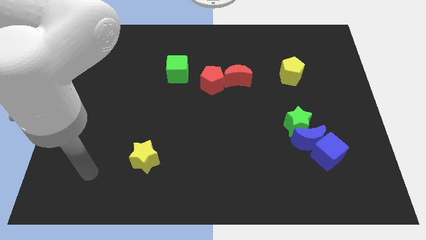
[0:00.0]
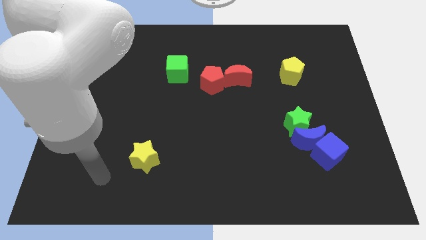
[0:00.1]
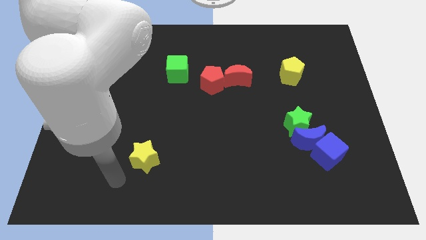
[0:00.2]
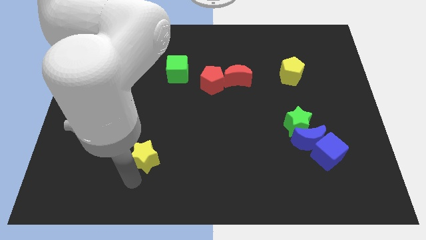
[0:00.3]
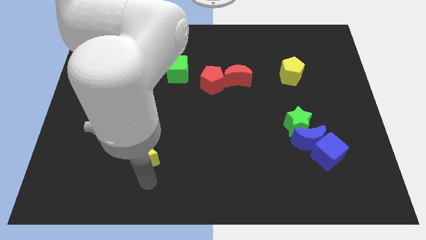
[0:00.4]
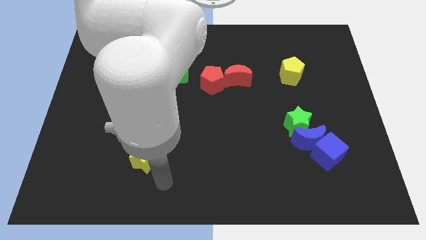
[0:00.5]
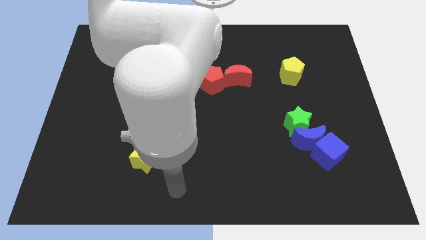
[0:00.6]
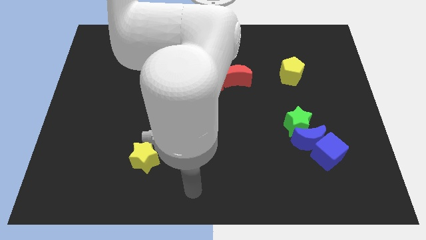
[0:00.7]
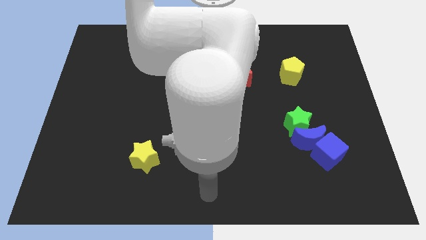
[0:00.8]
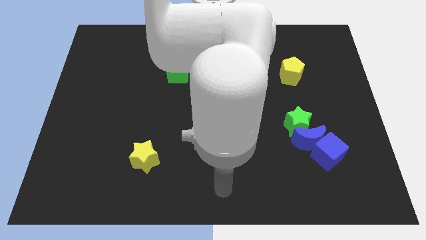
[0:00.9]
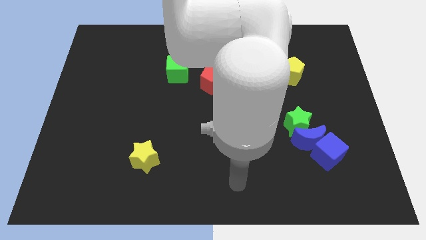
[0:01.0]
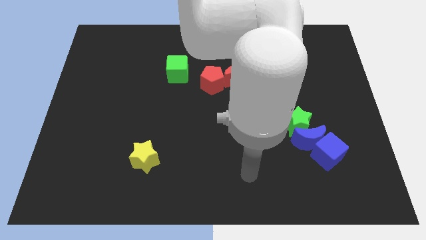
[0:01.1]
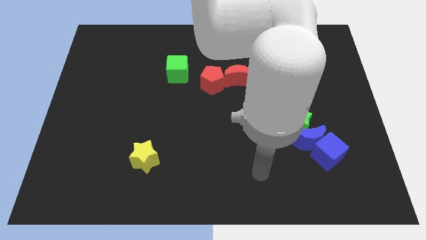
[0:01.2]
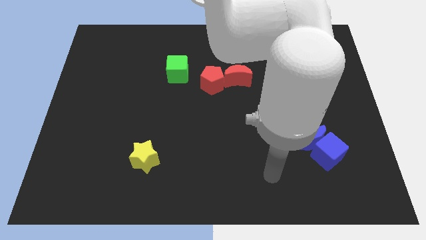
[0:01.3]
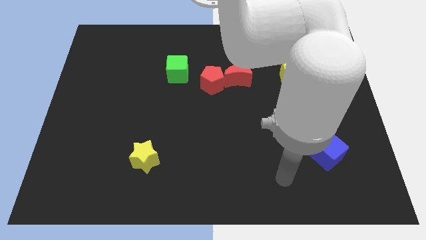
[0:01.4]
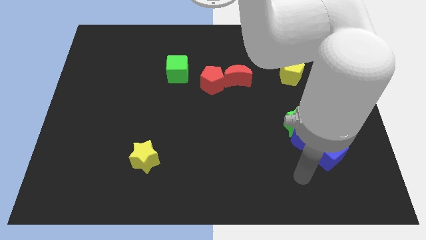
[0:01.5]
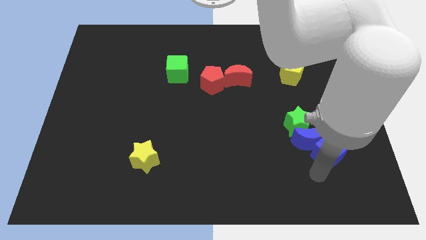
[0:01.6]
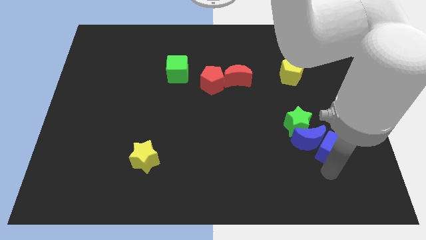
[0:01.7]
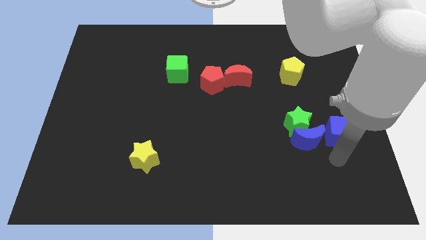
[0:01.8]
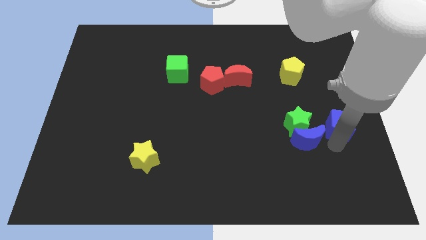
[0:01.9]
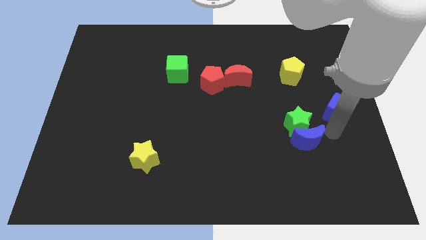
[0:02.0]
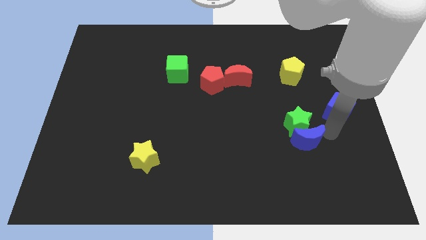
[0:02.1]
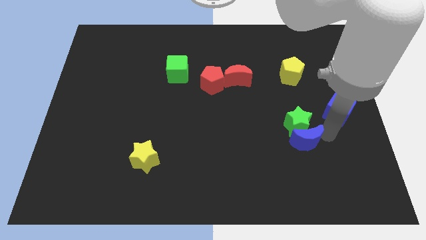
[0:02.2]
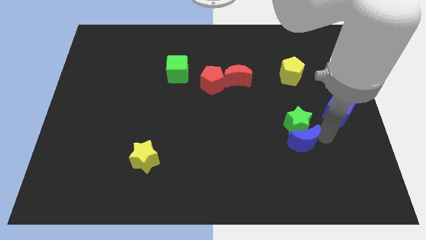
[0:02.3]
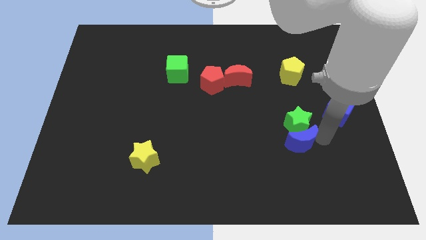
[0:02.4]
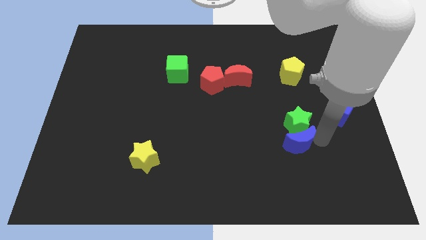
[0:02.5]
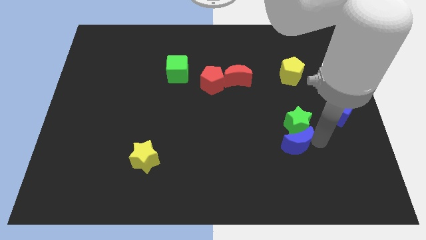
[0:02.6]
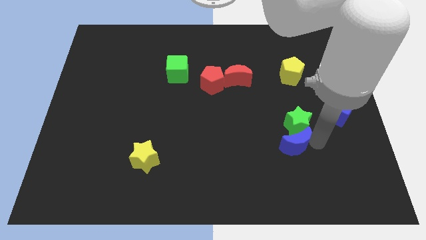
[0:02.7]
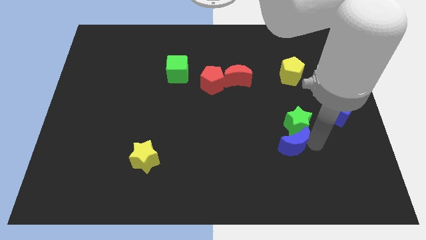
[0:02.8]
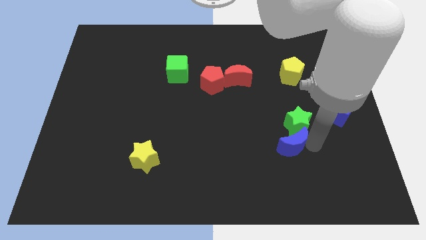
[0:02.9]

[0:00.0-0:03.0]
move the blue moon away from the green star and blue cube

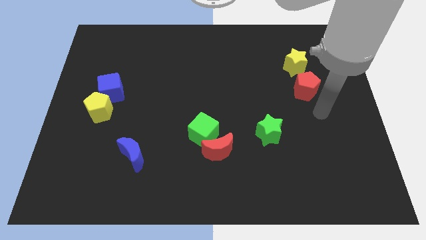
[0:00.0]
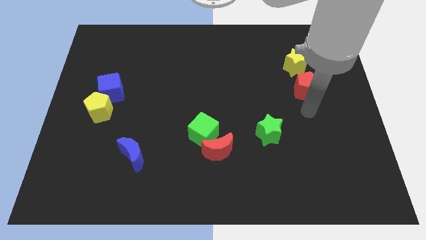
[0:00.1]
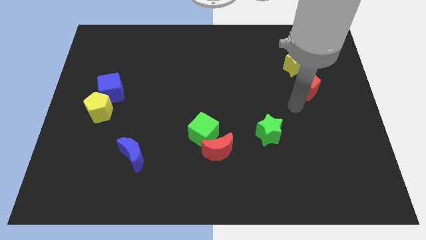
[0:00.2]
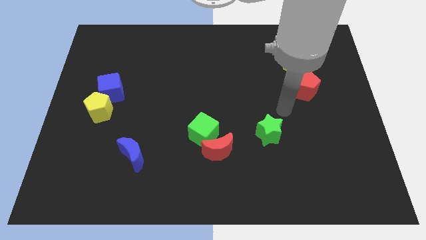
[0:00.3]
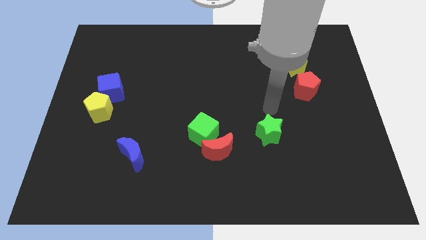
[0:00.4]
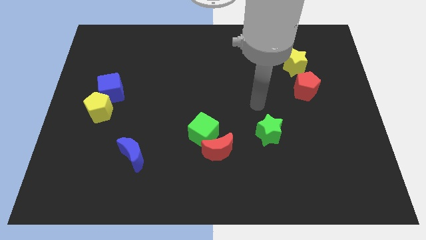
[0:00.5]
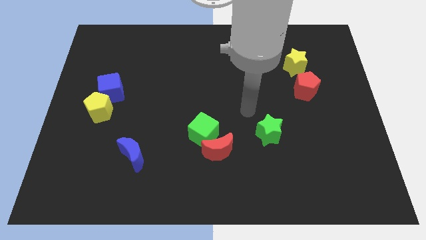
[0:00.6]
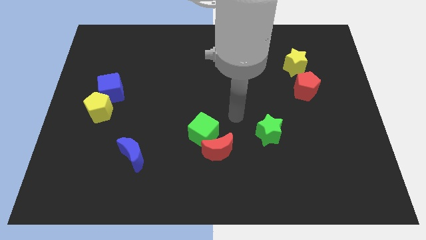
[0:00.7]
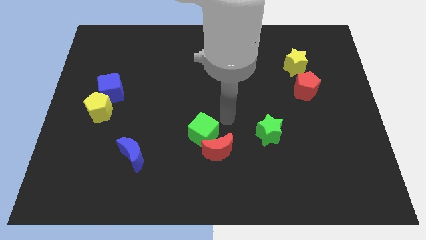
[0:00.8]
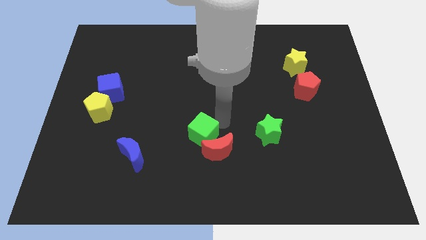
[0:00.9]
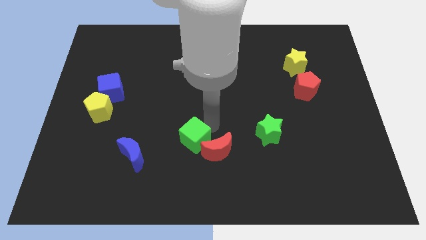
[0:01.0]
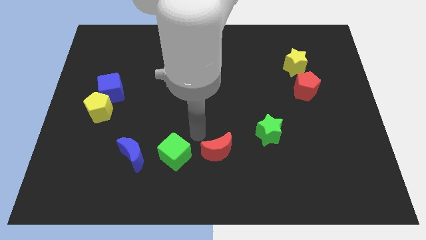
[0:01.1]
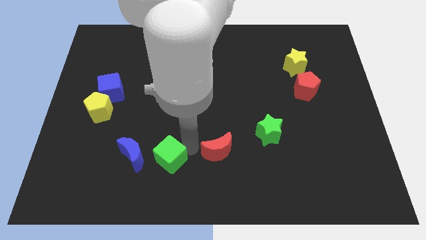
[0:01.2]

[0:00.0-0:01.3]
move the red moon away from the green cube

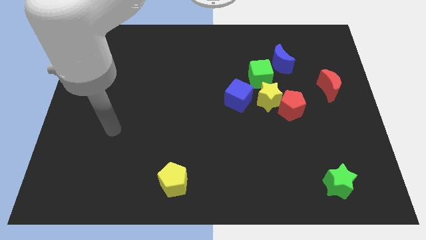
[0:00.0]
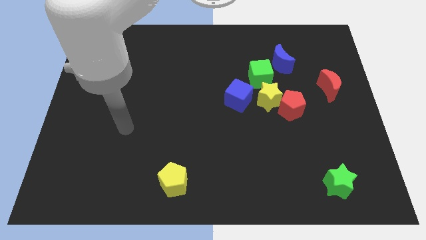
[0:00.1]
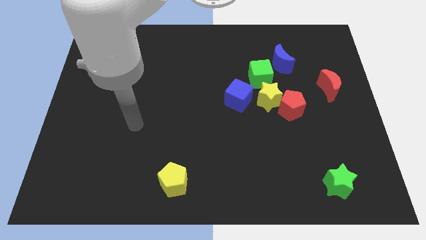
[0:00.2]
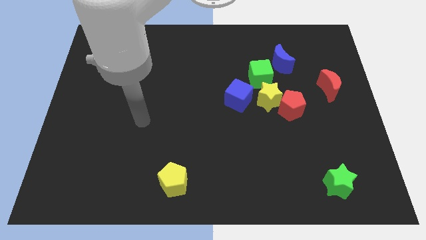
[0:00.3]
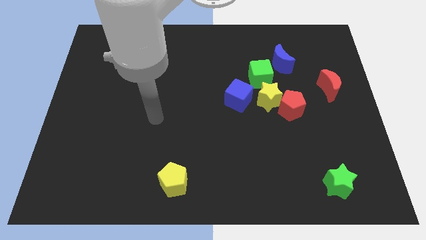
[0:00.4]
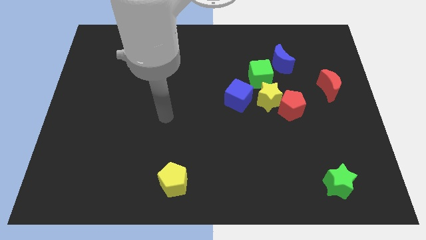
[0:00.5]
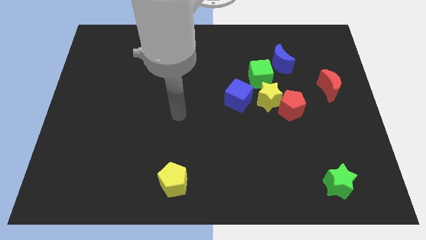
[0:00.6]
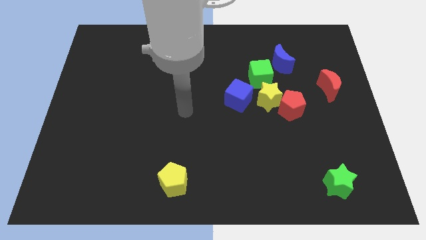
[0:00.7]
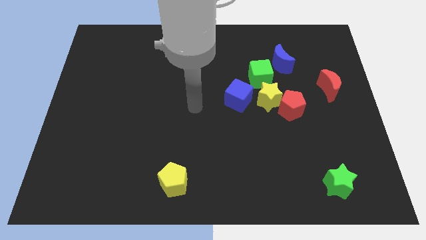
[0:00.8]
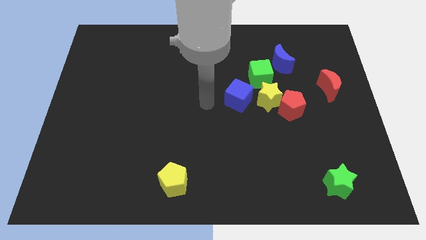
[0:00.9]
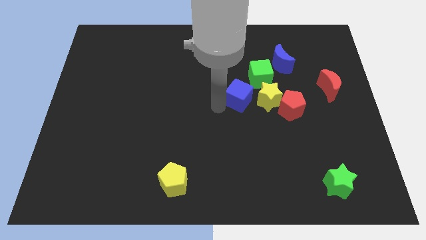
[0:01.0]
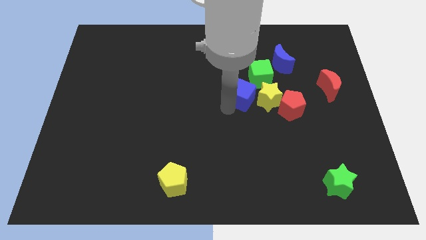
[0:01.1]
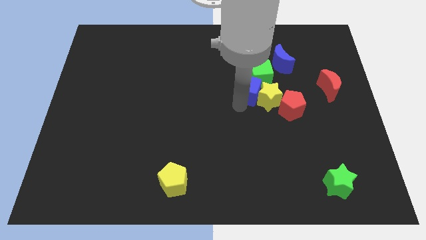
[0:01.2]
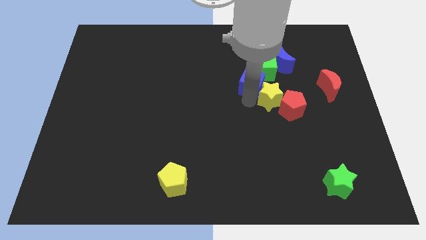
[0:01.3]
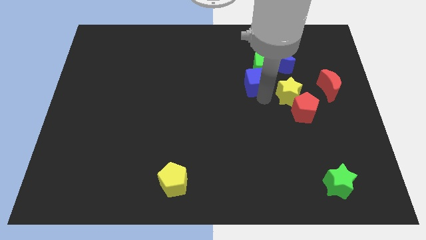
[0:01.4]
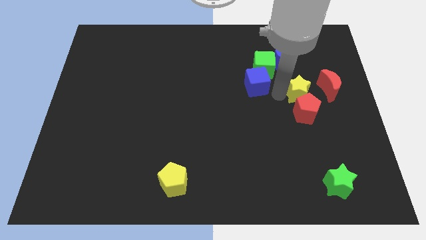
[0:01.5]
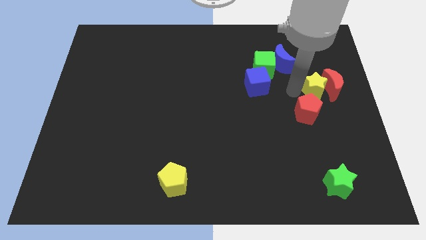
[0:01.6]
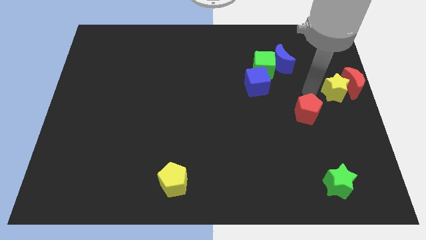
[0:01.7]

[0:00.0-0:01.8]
move the red pentagon away from the yellow star

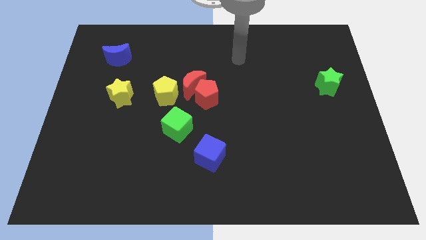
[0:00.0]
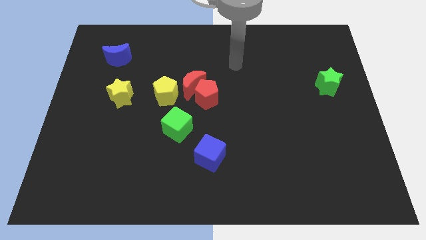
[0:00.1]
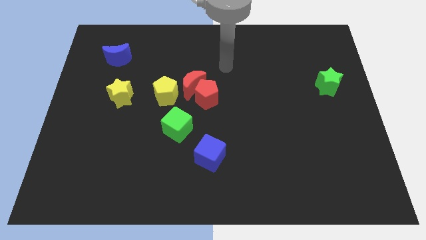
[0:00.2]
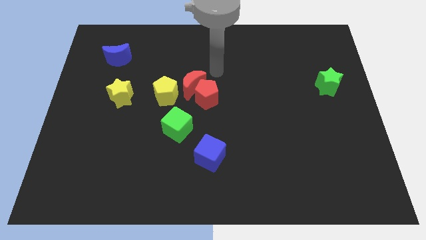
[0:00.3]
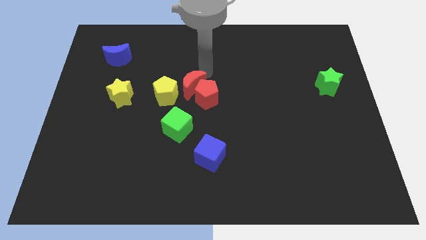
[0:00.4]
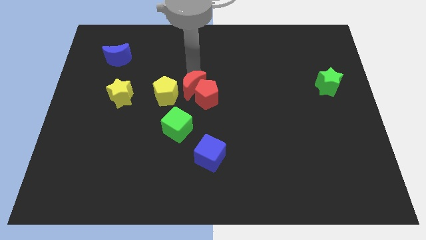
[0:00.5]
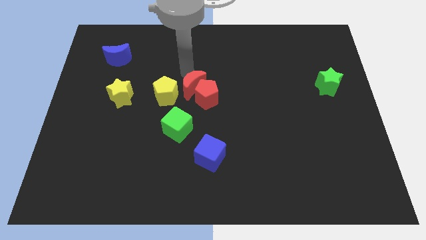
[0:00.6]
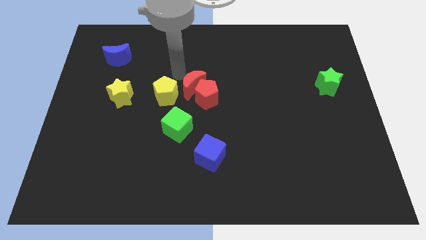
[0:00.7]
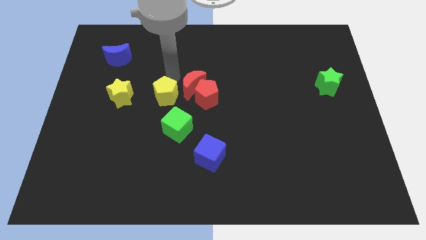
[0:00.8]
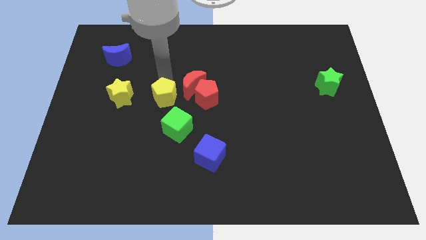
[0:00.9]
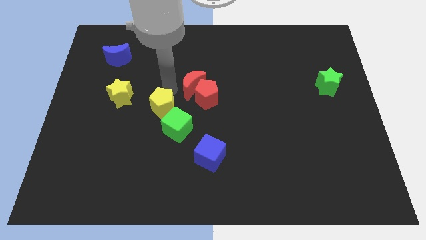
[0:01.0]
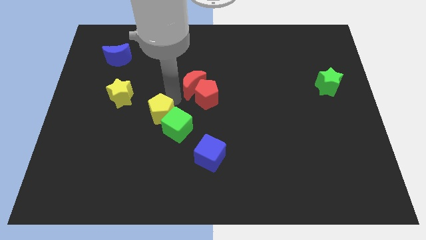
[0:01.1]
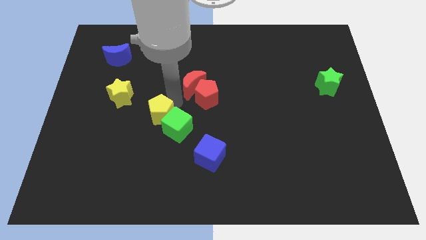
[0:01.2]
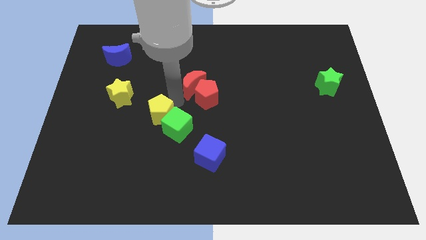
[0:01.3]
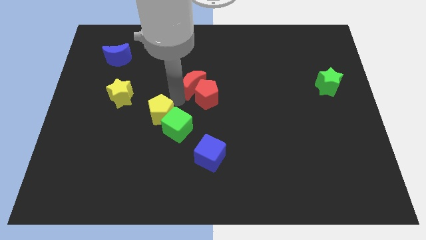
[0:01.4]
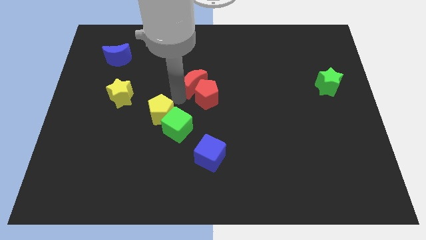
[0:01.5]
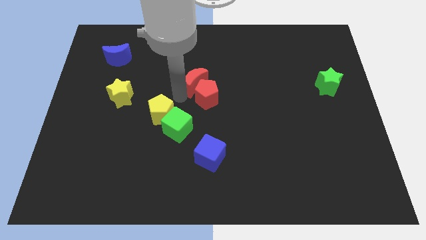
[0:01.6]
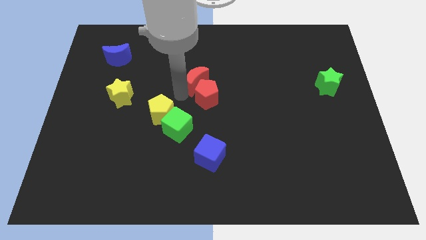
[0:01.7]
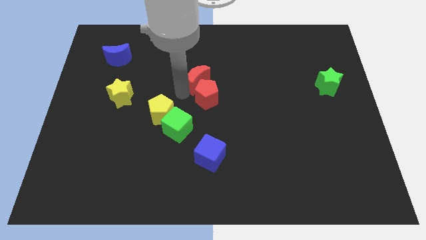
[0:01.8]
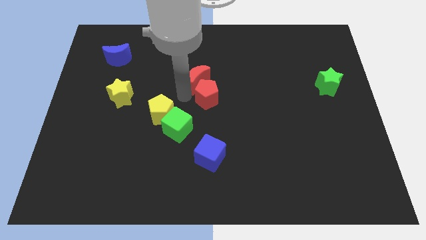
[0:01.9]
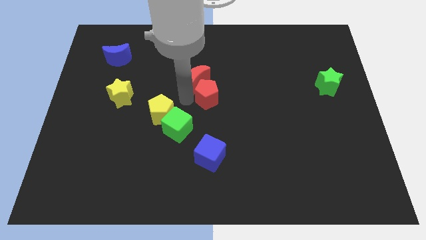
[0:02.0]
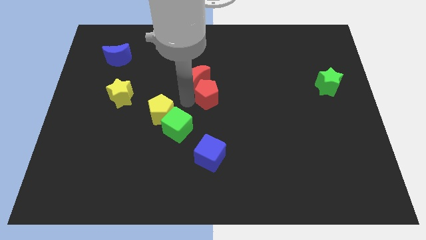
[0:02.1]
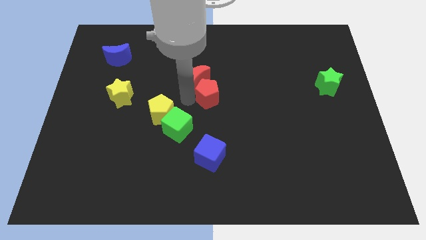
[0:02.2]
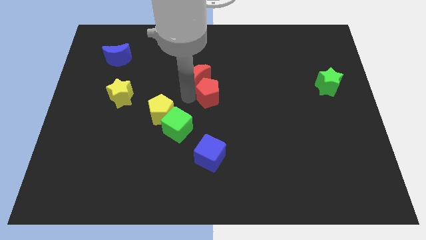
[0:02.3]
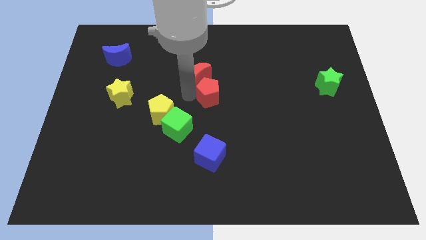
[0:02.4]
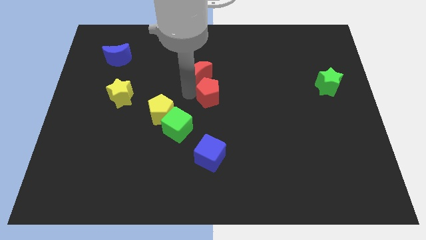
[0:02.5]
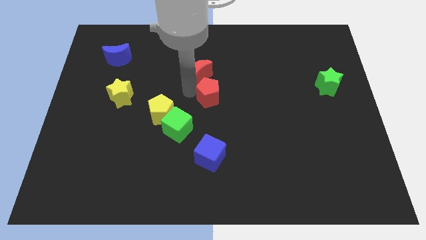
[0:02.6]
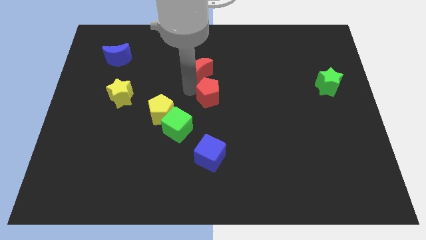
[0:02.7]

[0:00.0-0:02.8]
move the red moon away from the red pentagon and yellow pentagon

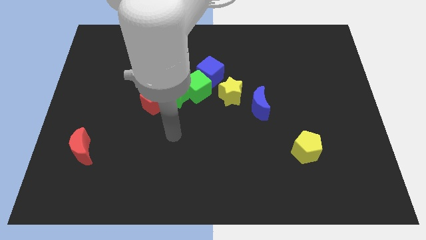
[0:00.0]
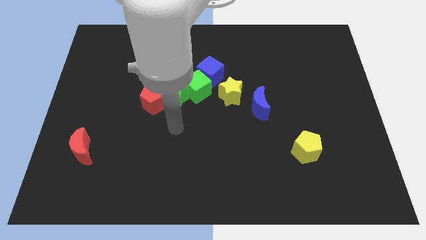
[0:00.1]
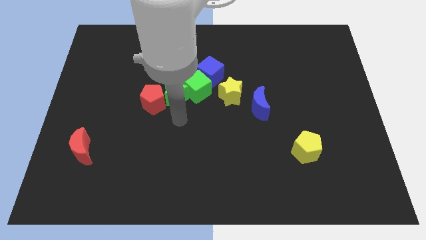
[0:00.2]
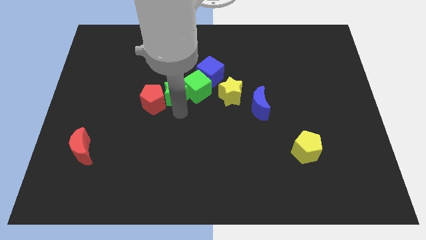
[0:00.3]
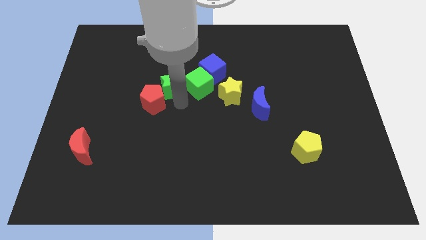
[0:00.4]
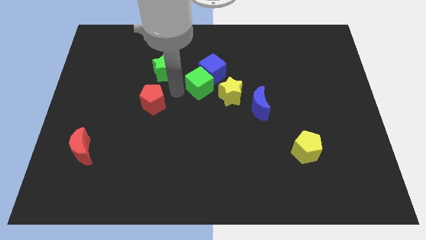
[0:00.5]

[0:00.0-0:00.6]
separate the red pentagon from the green star
